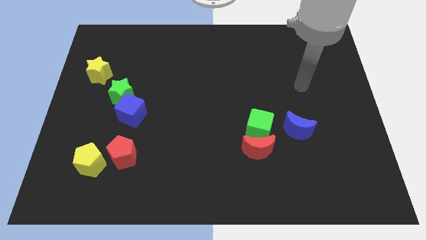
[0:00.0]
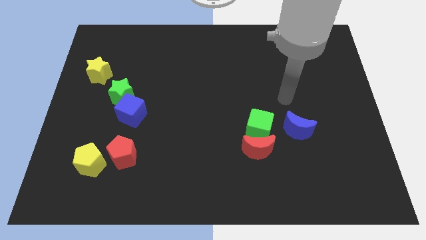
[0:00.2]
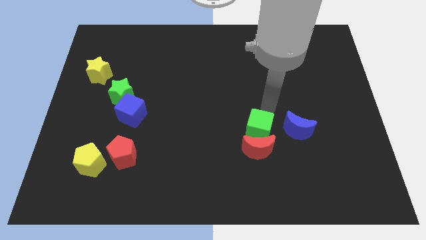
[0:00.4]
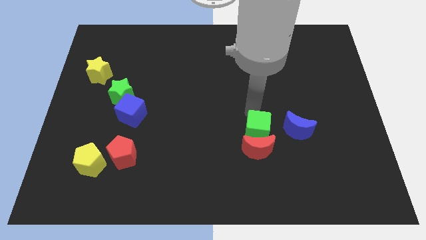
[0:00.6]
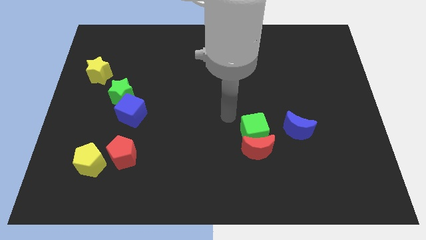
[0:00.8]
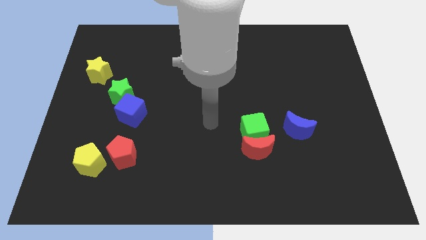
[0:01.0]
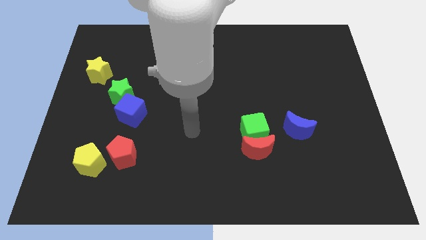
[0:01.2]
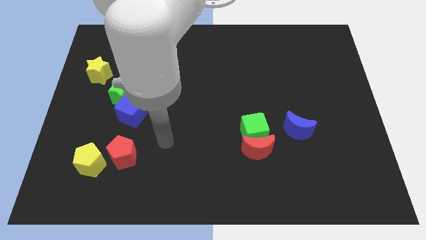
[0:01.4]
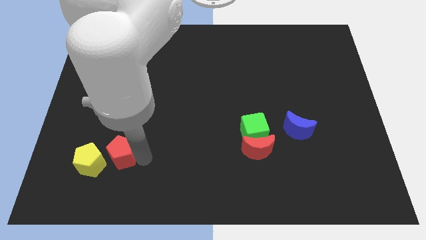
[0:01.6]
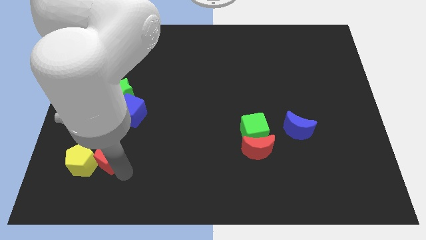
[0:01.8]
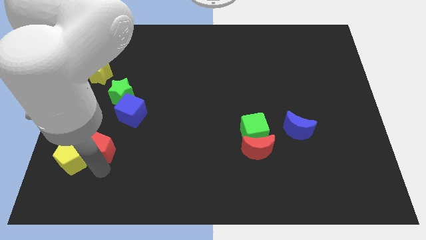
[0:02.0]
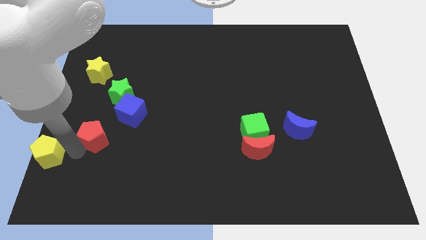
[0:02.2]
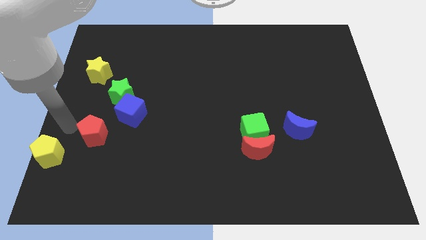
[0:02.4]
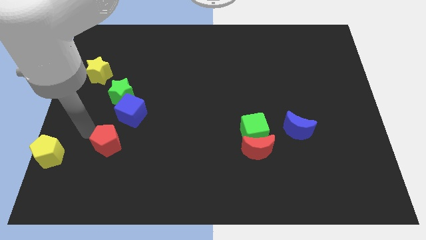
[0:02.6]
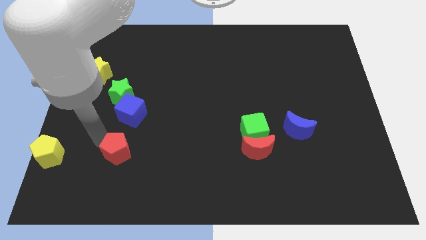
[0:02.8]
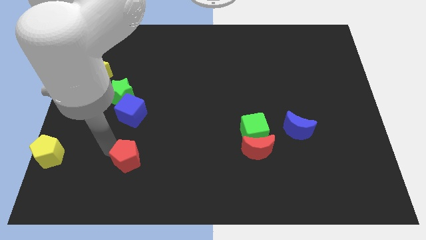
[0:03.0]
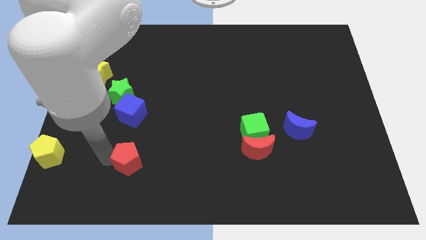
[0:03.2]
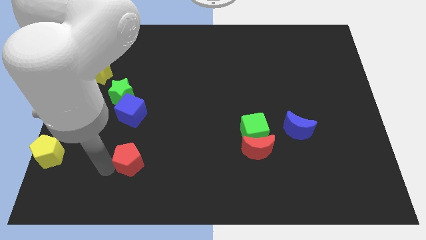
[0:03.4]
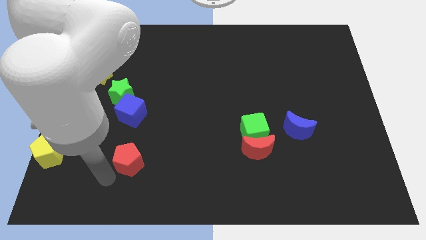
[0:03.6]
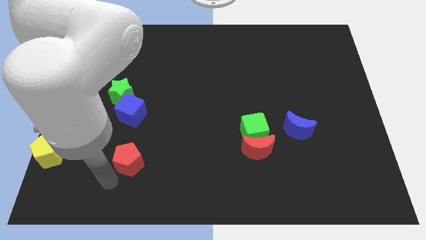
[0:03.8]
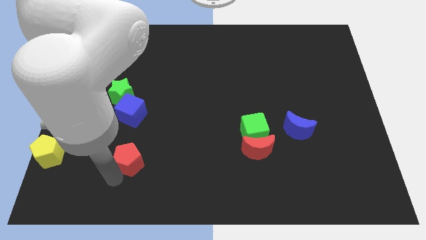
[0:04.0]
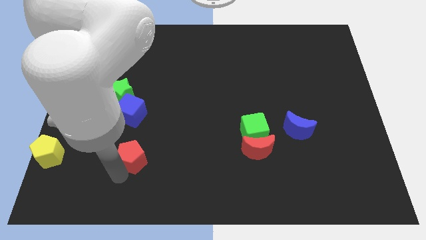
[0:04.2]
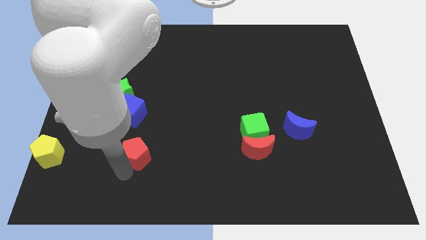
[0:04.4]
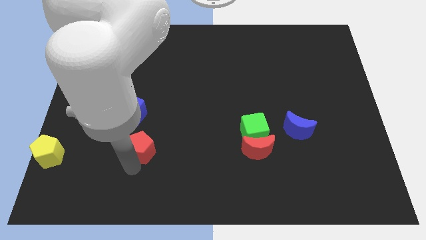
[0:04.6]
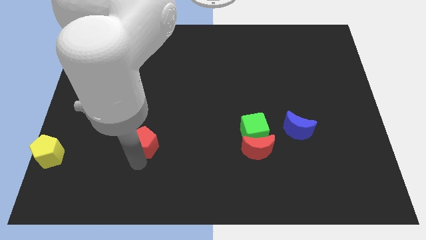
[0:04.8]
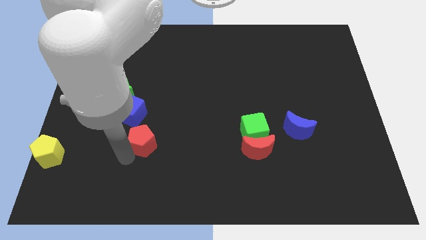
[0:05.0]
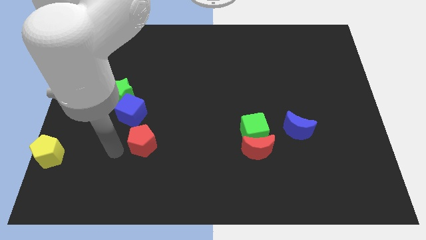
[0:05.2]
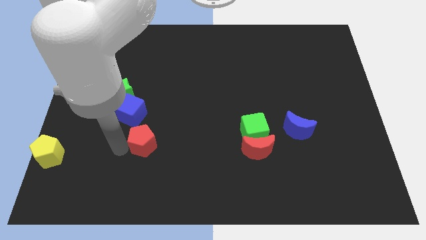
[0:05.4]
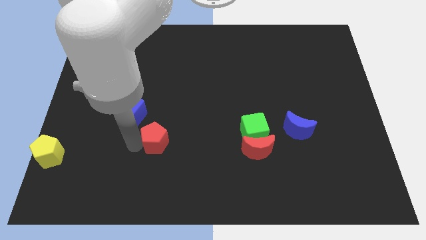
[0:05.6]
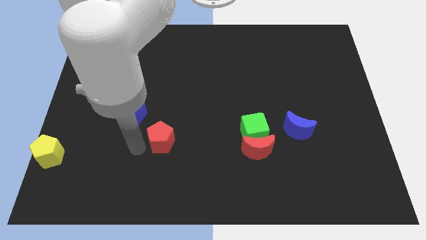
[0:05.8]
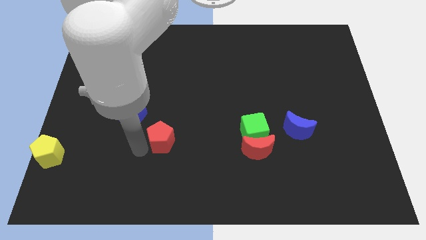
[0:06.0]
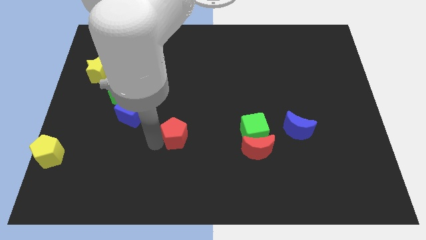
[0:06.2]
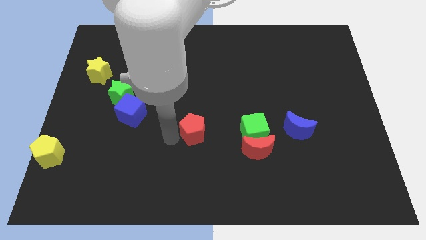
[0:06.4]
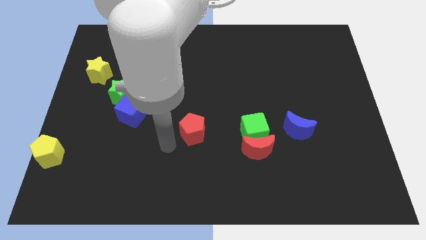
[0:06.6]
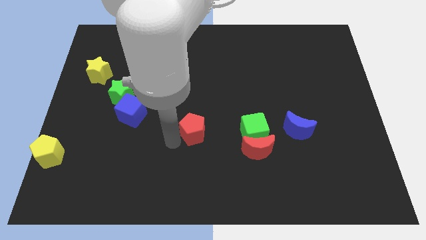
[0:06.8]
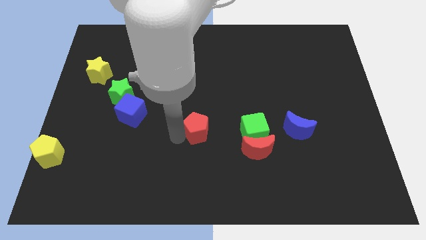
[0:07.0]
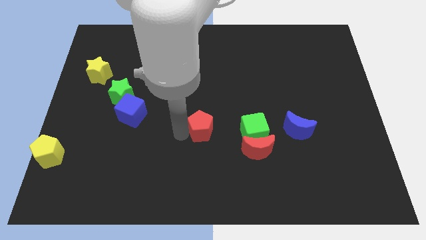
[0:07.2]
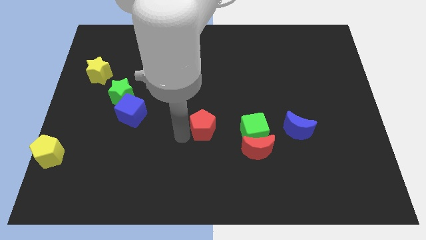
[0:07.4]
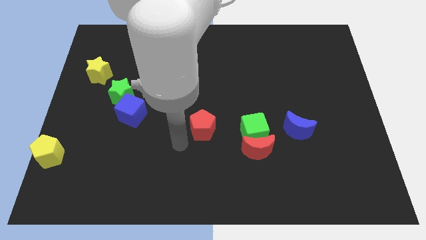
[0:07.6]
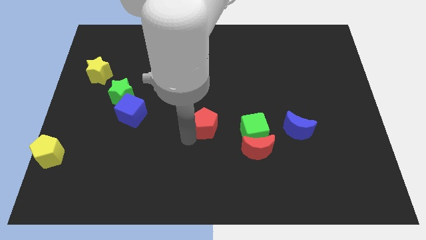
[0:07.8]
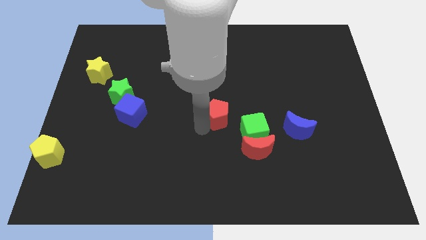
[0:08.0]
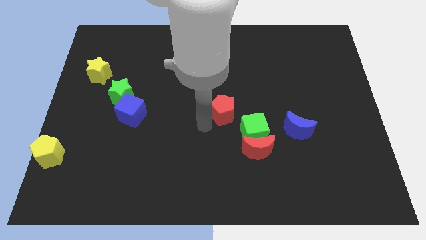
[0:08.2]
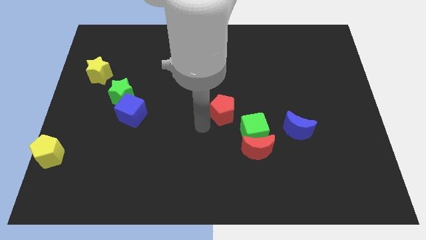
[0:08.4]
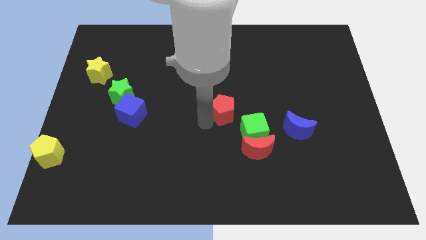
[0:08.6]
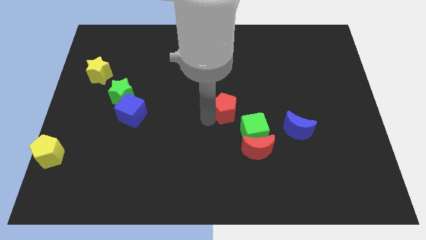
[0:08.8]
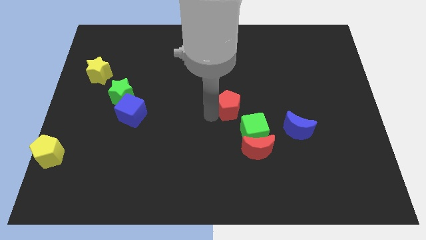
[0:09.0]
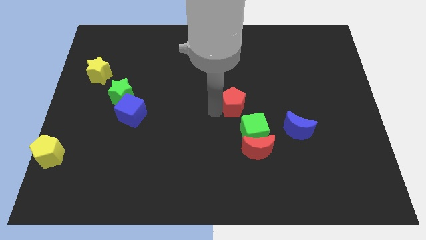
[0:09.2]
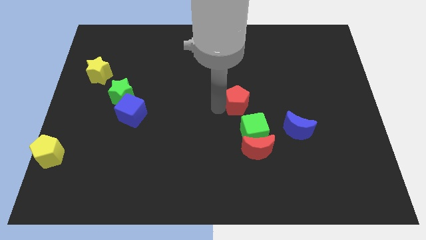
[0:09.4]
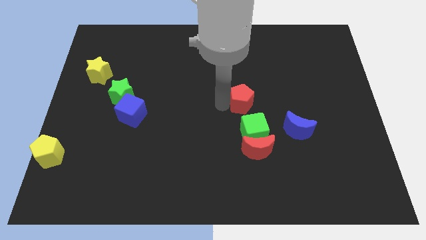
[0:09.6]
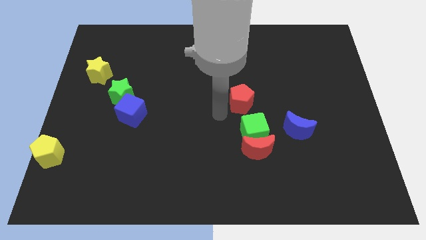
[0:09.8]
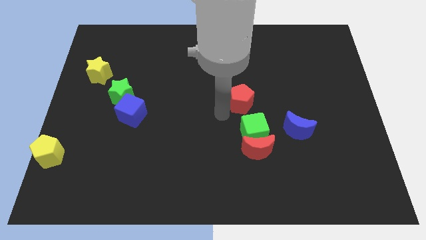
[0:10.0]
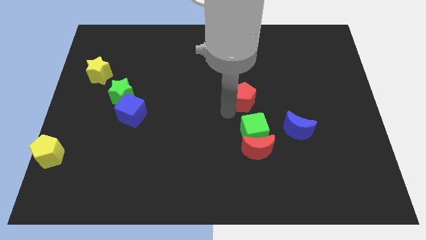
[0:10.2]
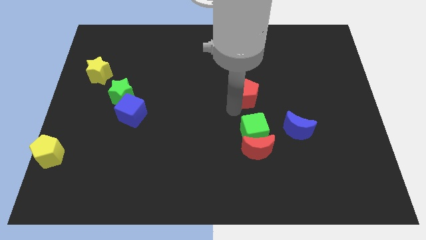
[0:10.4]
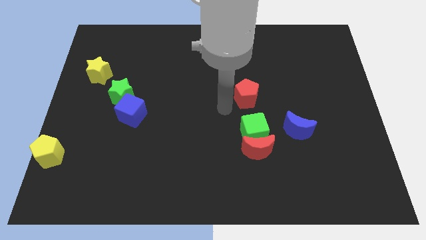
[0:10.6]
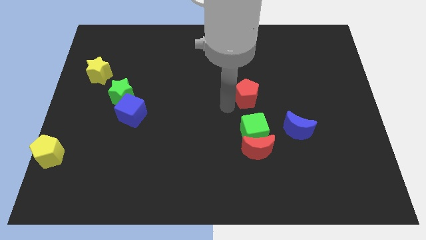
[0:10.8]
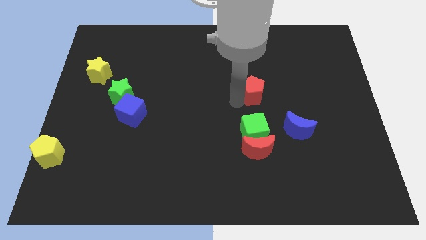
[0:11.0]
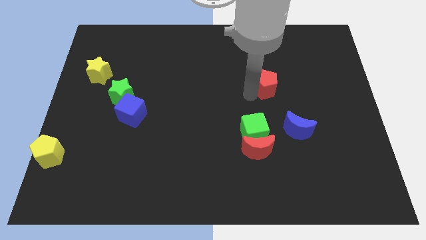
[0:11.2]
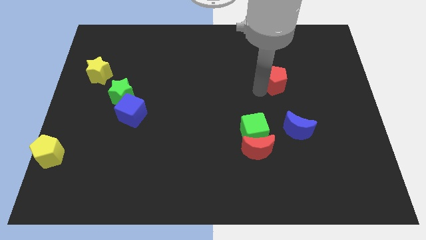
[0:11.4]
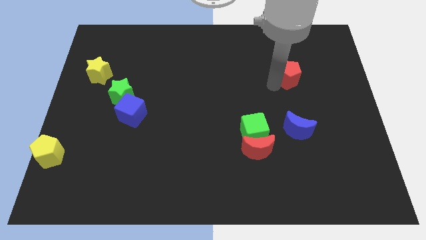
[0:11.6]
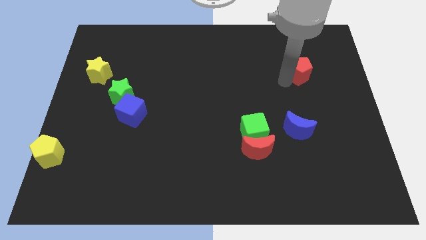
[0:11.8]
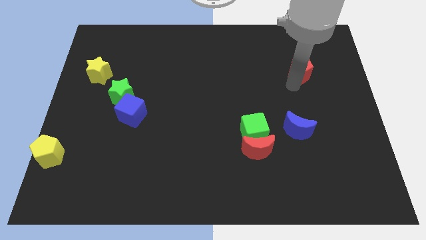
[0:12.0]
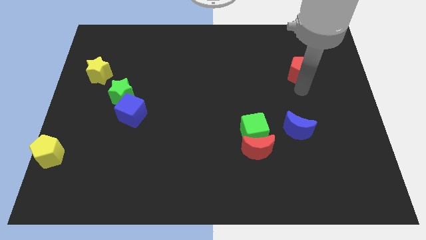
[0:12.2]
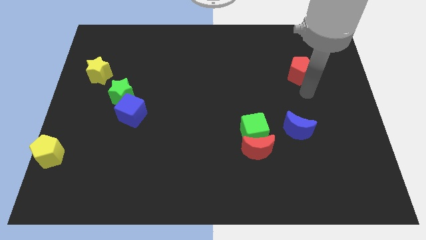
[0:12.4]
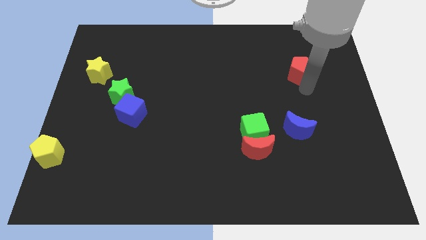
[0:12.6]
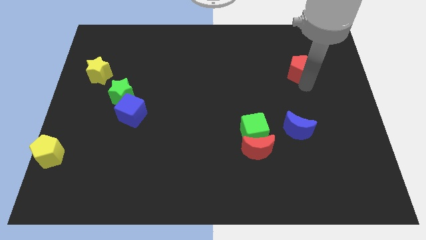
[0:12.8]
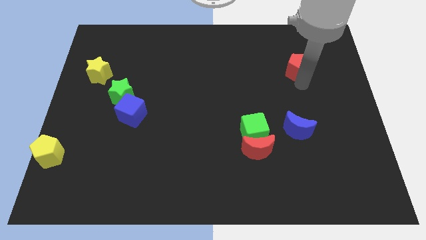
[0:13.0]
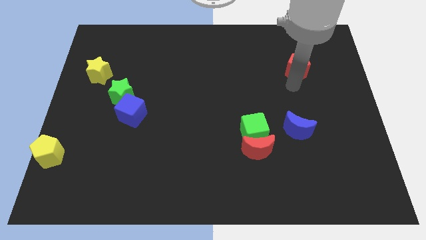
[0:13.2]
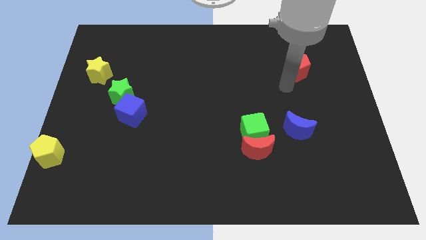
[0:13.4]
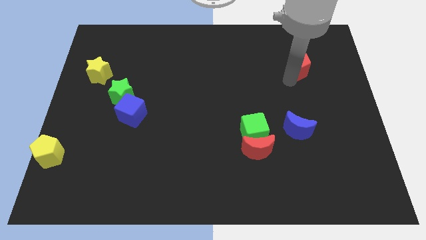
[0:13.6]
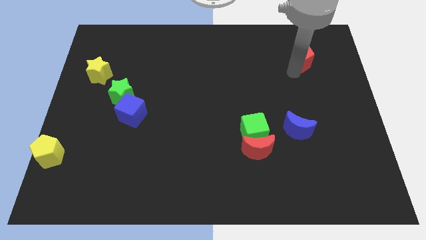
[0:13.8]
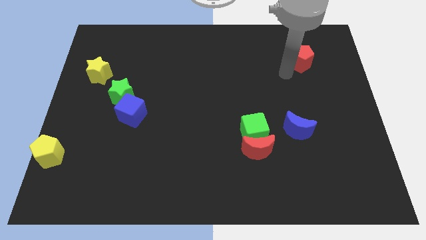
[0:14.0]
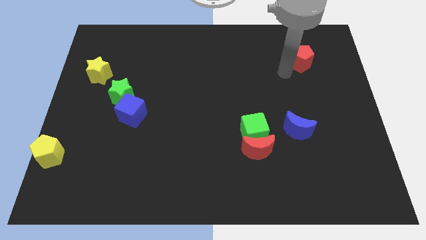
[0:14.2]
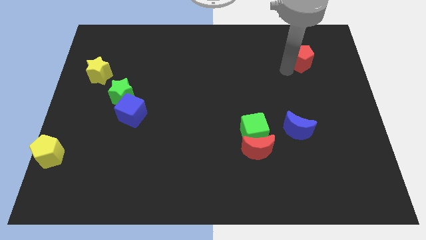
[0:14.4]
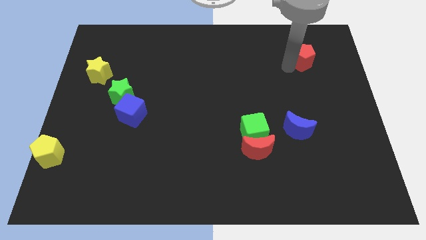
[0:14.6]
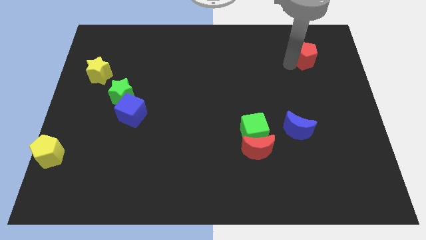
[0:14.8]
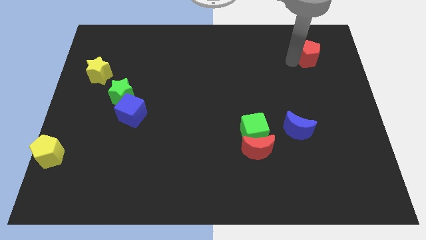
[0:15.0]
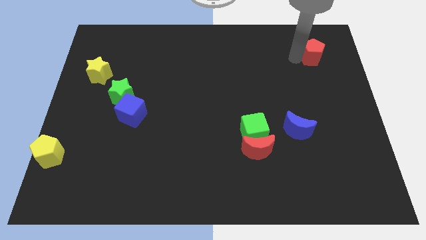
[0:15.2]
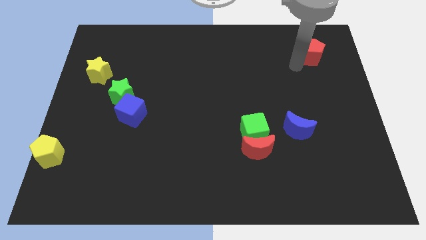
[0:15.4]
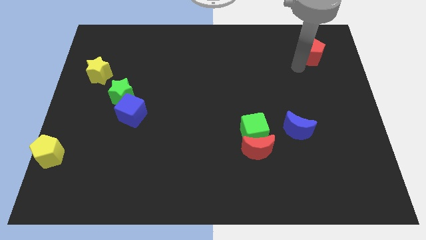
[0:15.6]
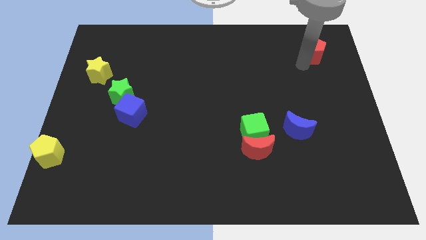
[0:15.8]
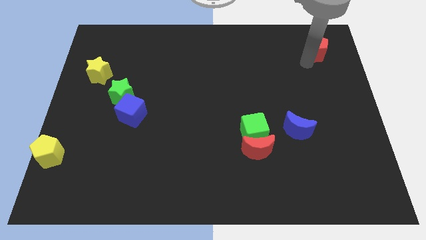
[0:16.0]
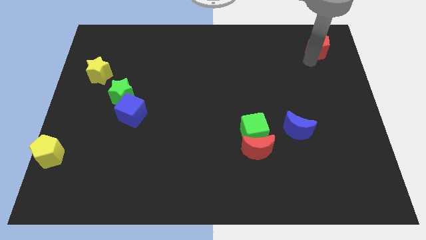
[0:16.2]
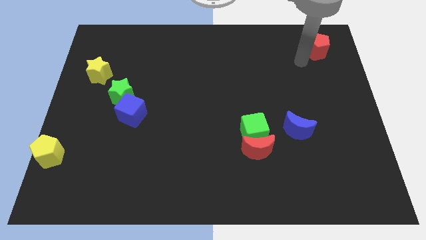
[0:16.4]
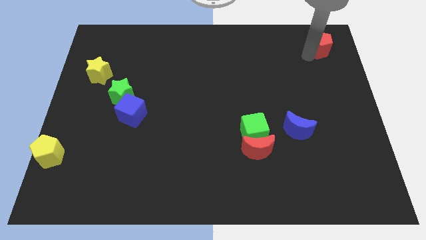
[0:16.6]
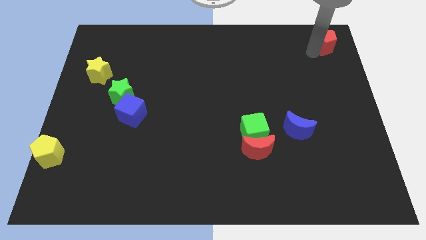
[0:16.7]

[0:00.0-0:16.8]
slide the red pentagon to the upper right corner
